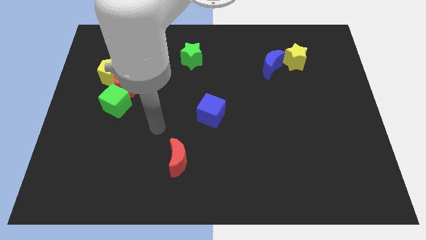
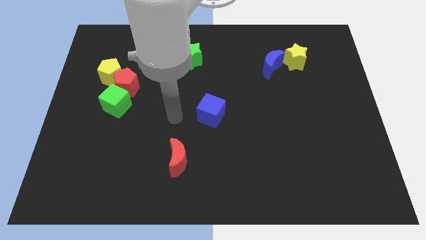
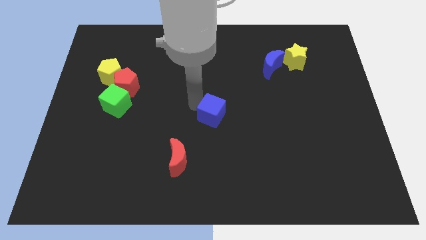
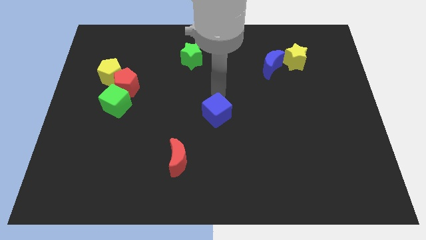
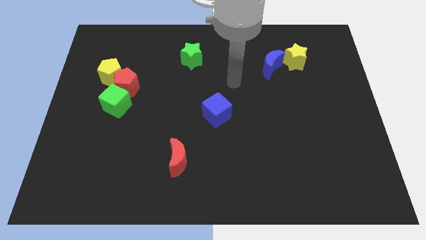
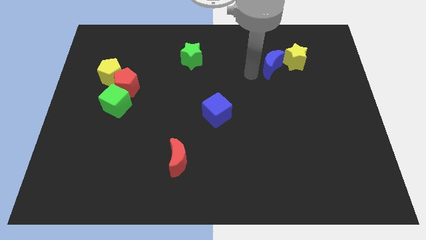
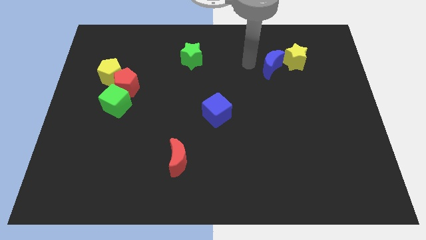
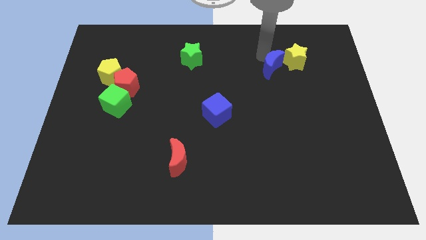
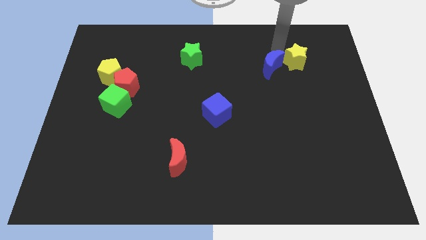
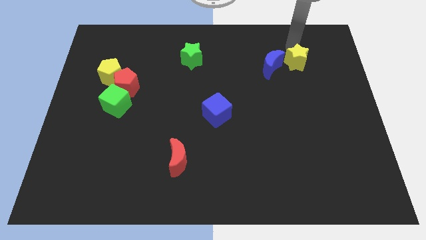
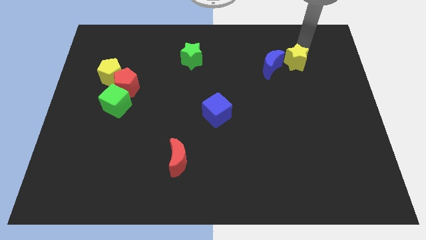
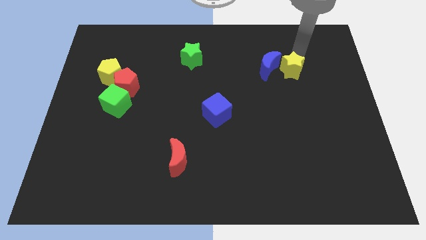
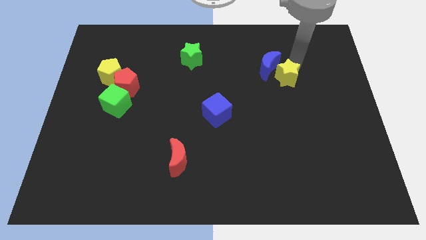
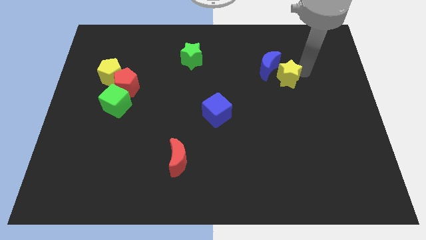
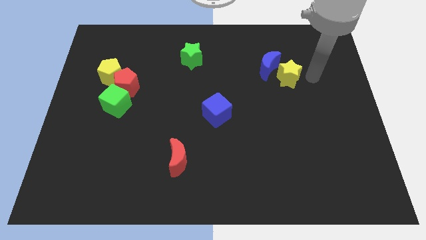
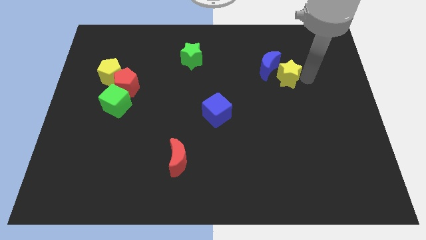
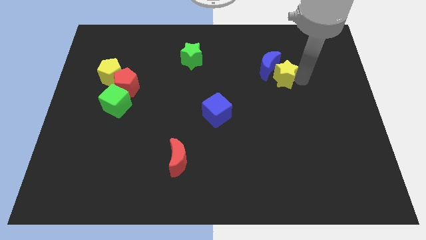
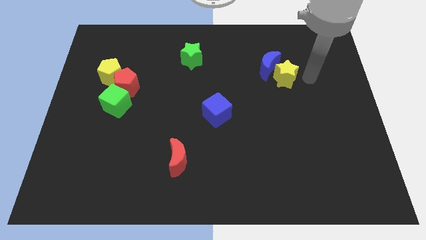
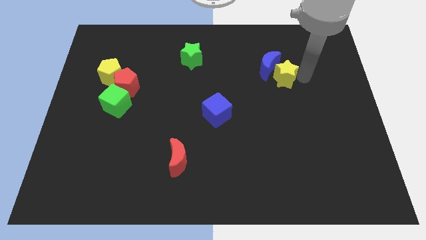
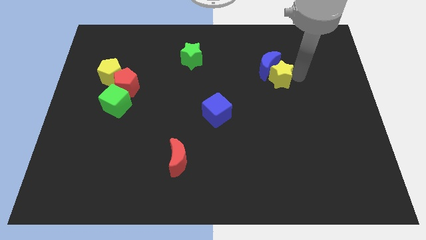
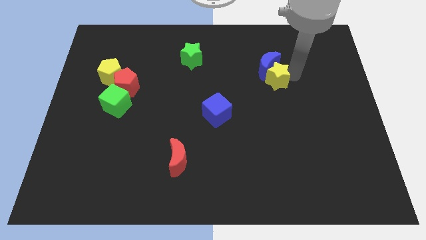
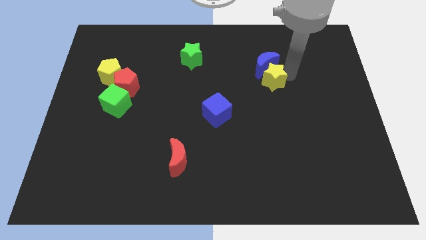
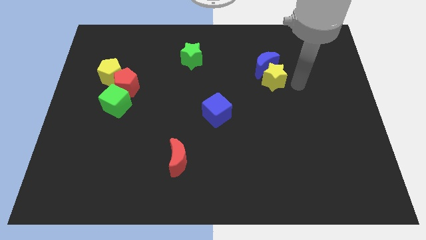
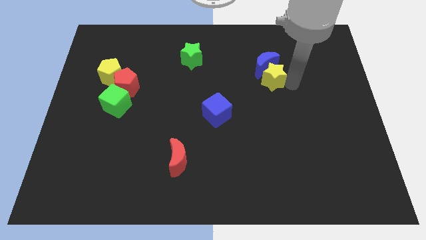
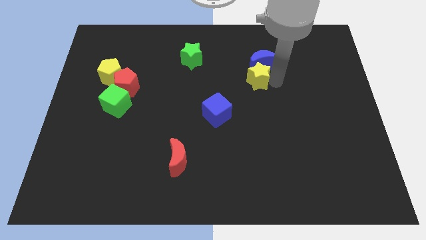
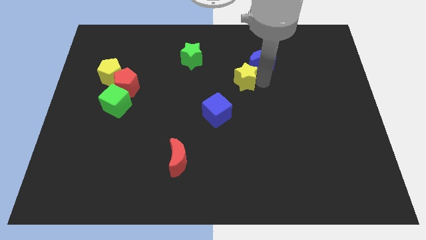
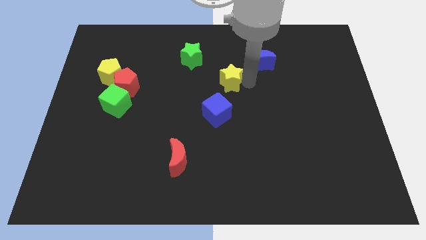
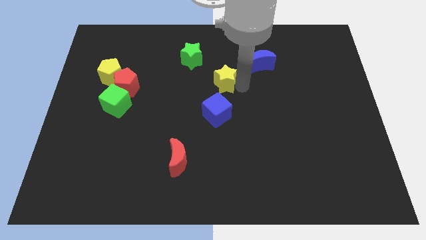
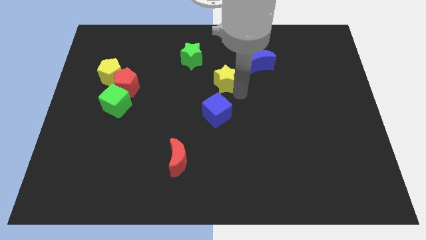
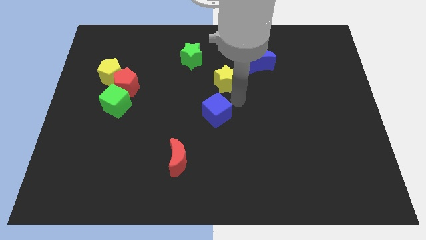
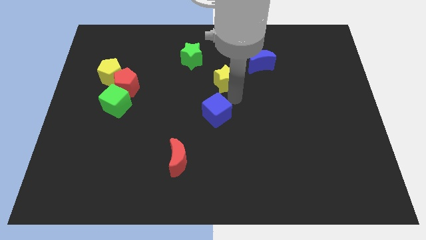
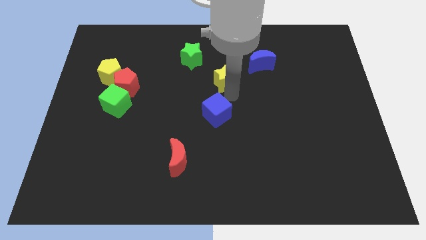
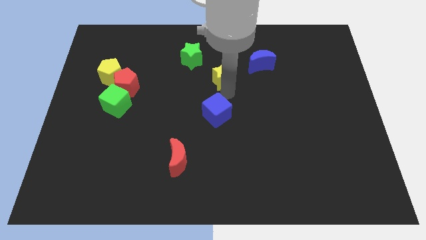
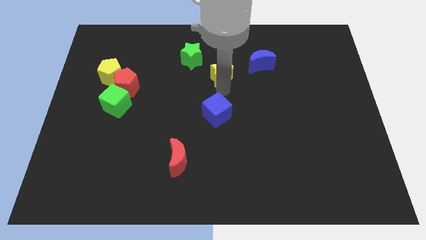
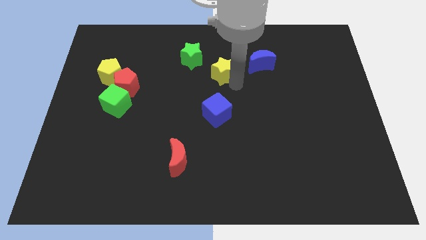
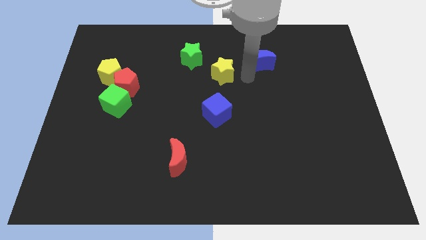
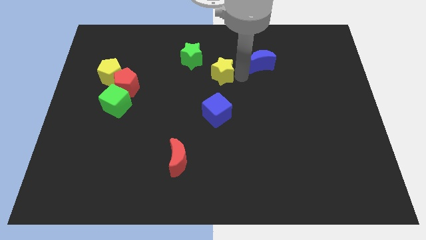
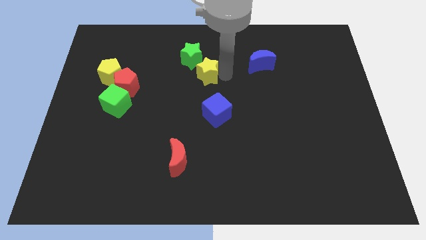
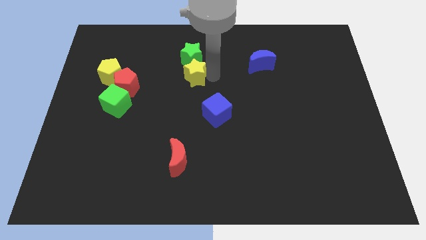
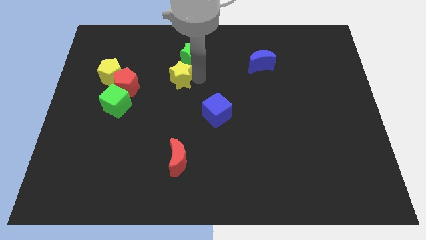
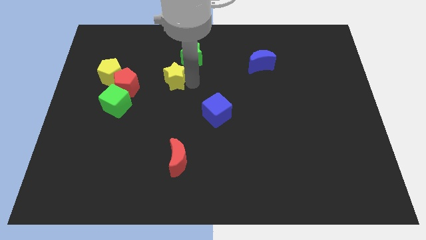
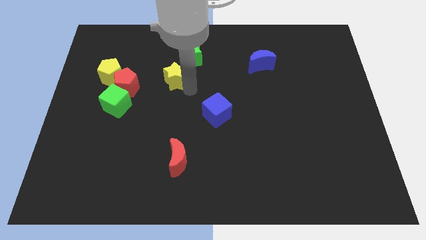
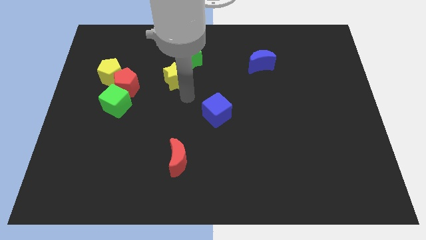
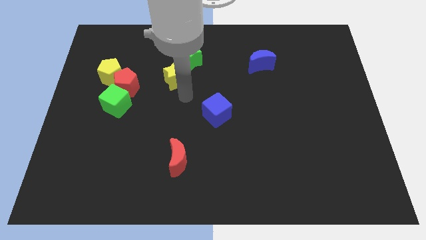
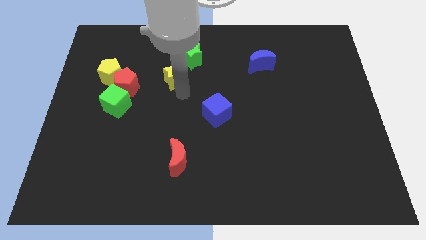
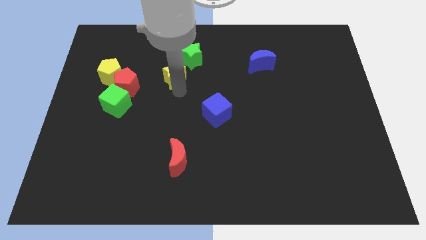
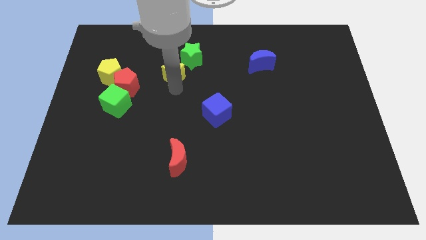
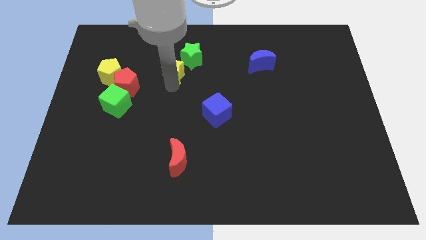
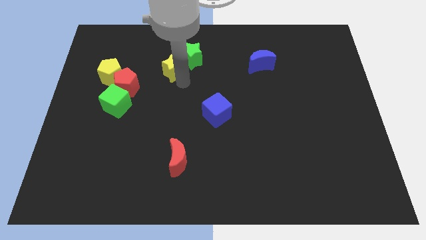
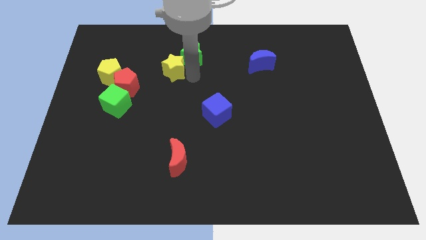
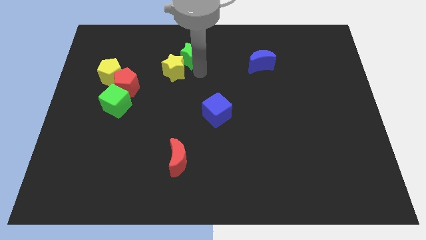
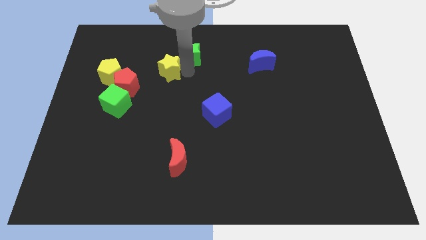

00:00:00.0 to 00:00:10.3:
slide the yellow star diagonally up and to the right of the red pentagon

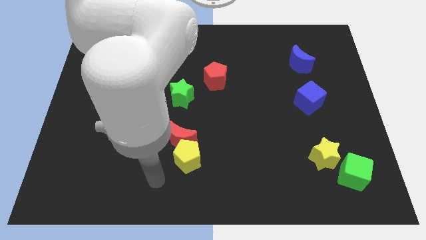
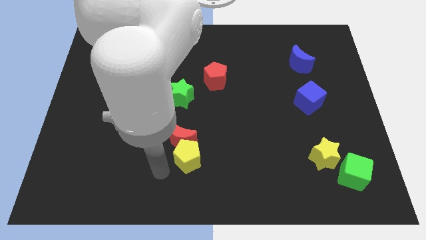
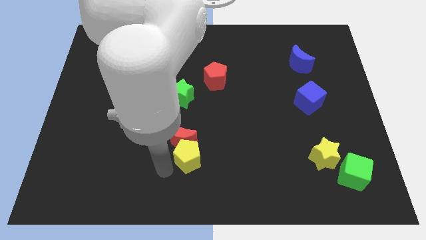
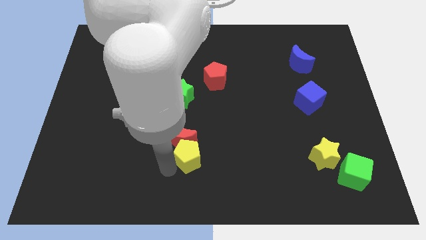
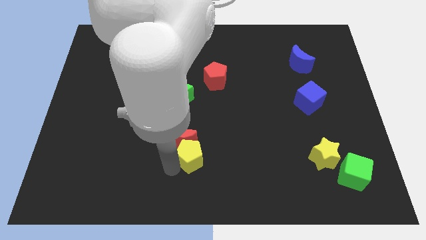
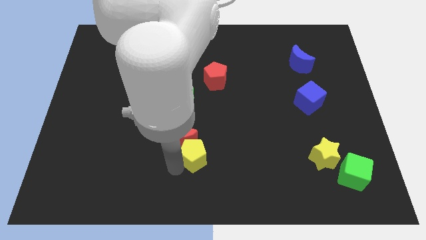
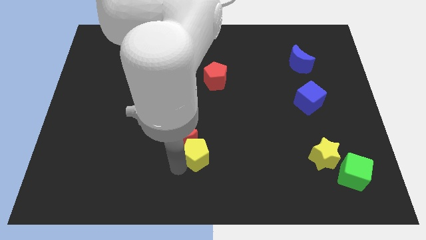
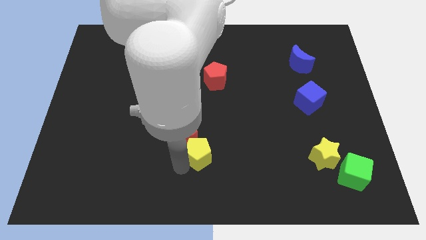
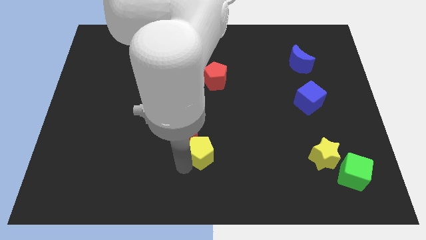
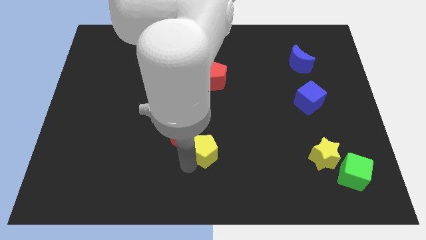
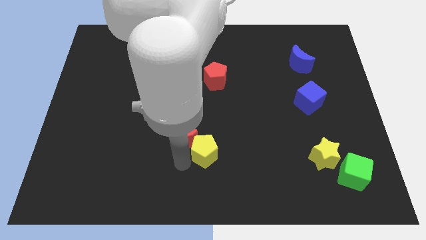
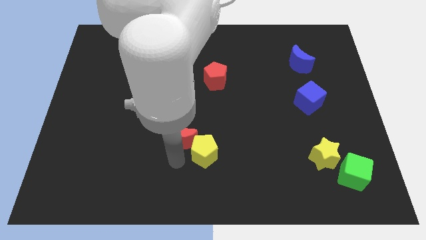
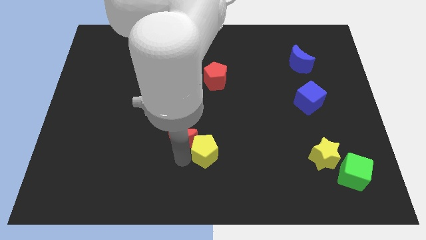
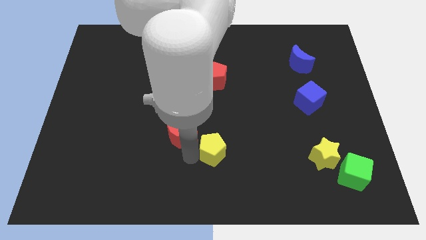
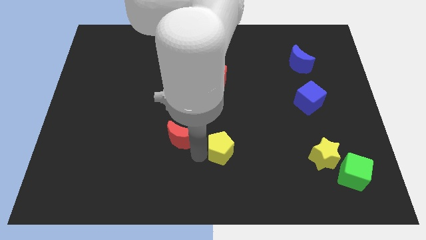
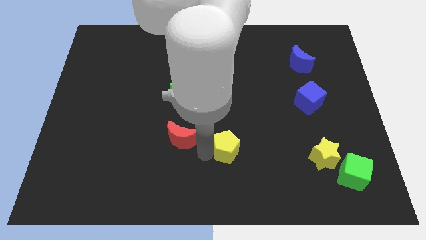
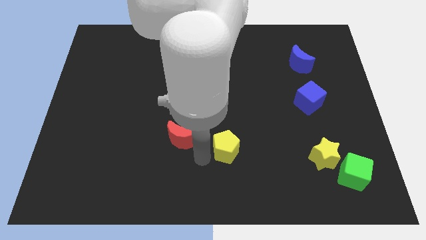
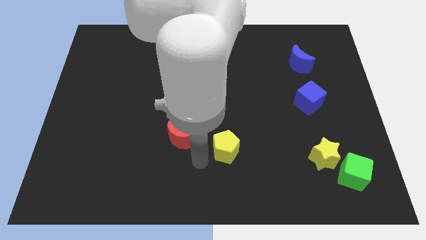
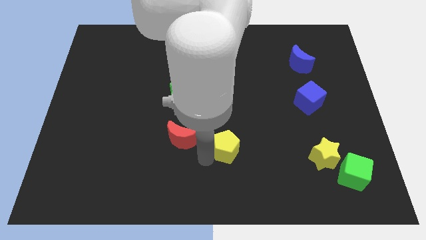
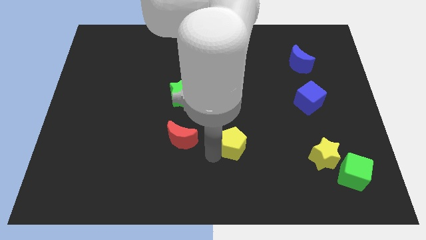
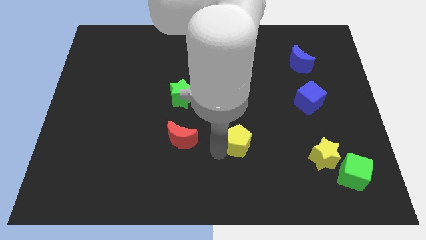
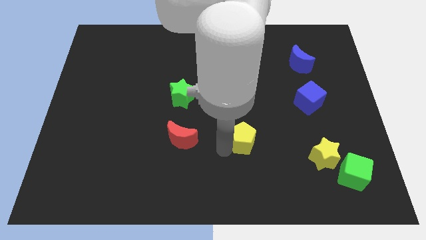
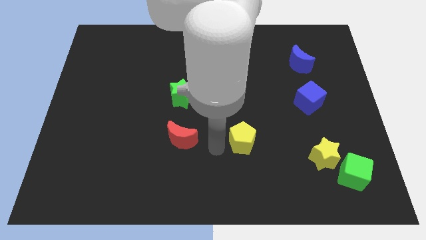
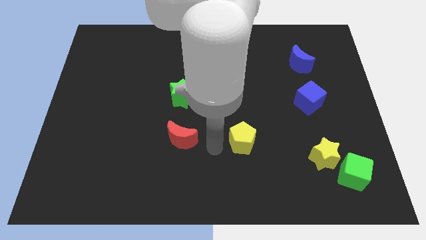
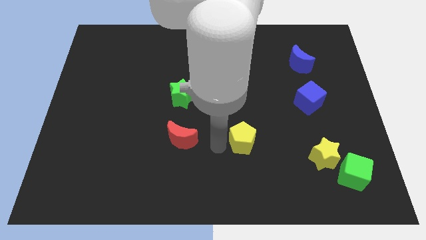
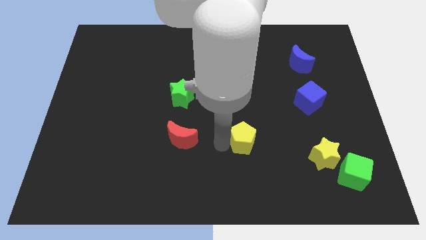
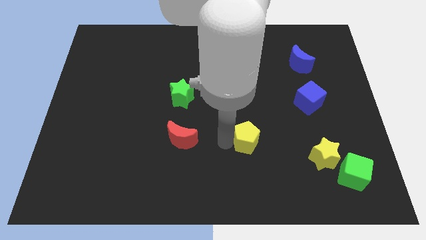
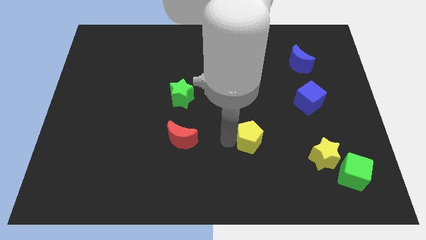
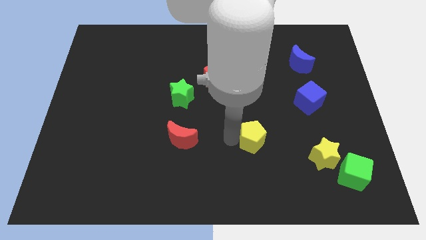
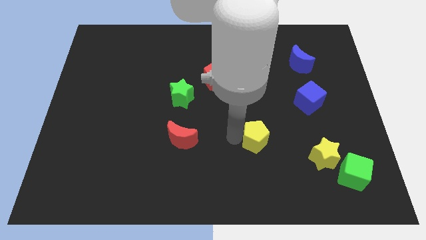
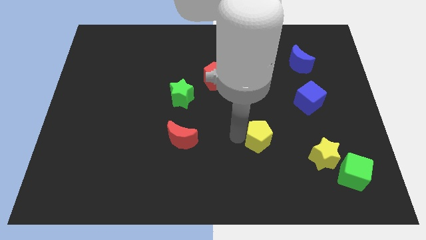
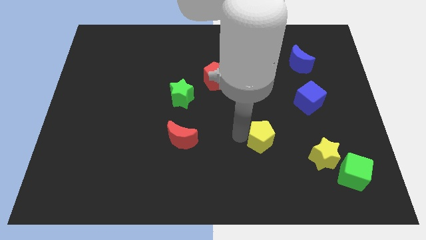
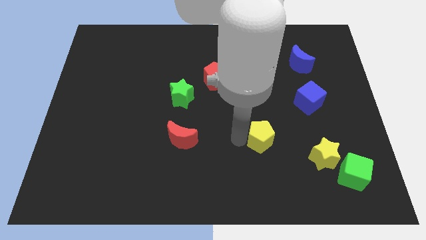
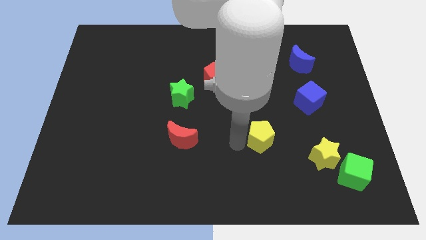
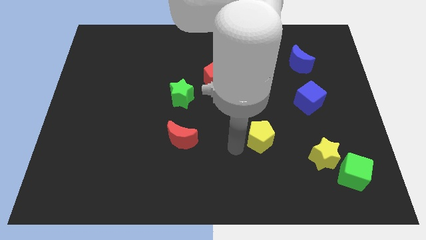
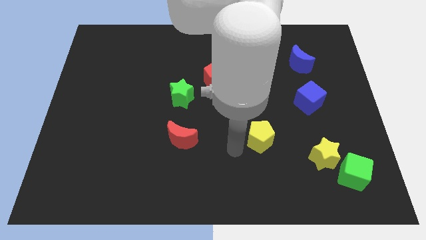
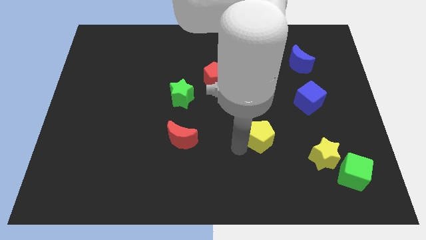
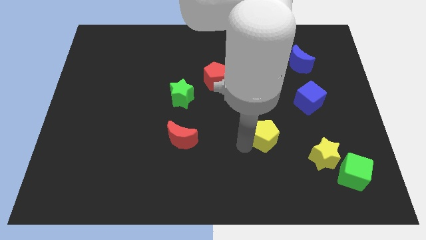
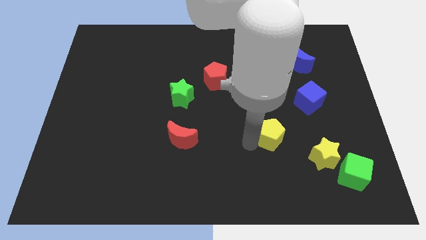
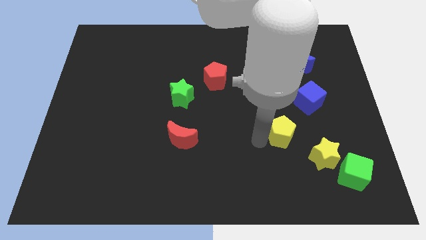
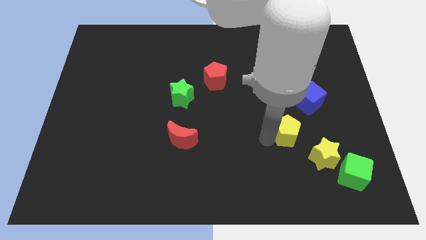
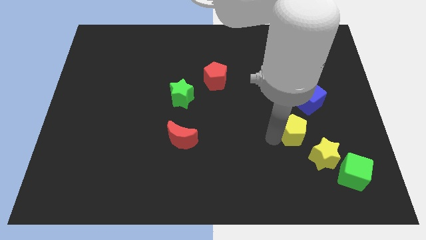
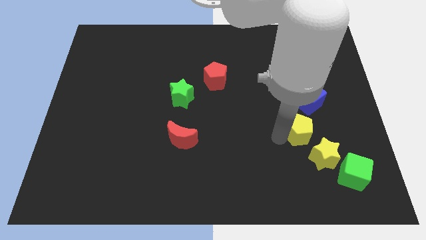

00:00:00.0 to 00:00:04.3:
slide the yellow pentagon to the top side of the yellow star
